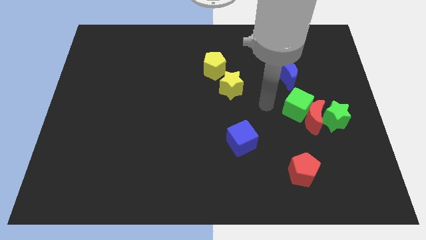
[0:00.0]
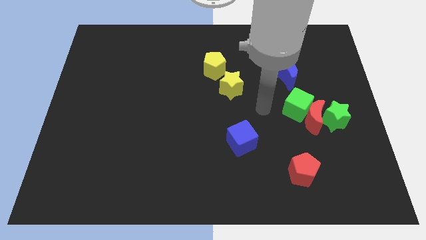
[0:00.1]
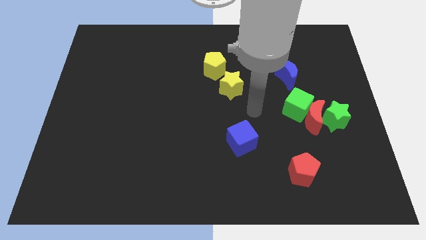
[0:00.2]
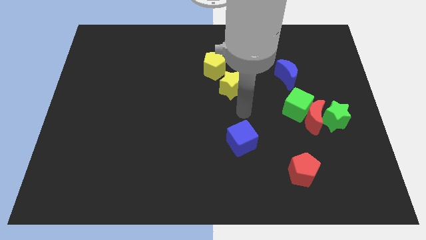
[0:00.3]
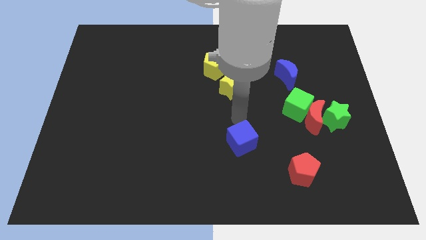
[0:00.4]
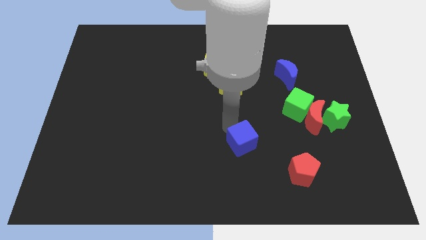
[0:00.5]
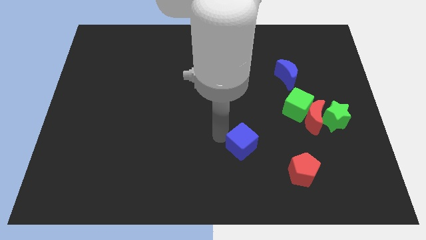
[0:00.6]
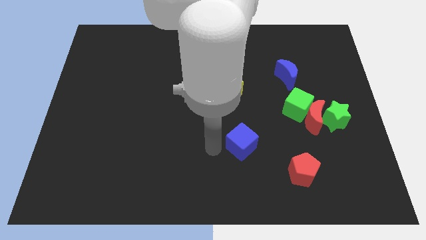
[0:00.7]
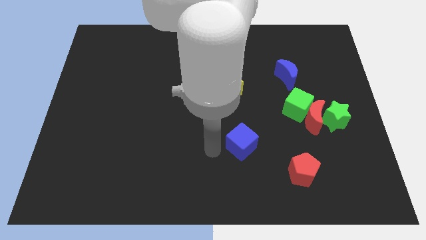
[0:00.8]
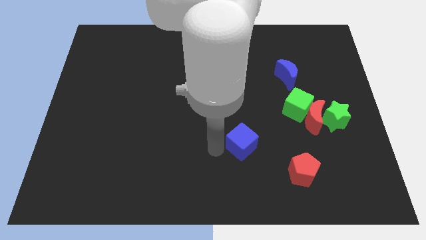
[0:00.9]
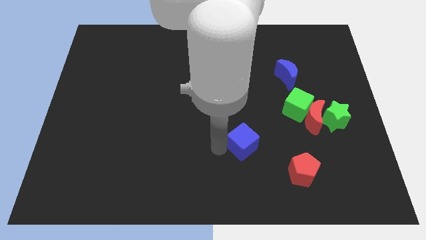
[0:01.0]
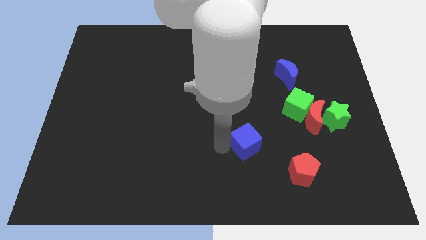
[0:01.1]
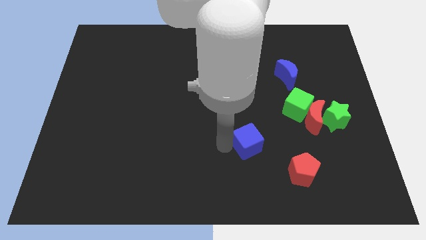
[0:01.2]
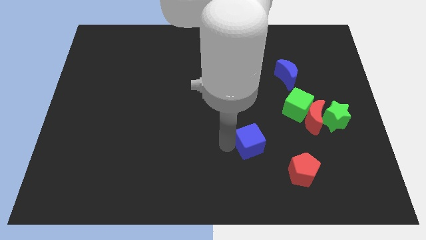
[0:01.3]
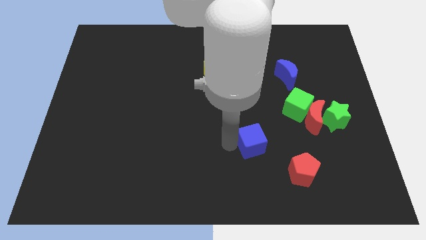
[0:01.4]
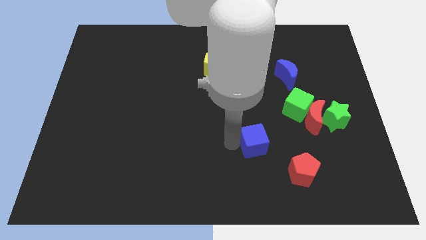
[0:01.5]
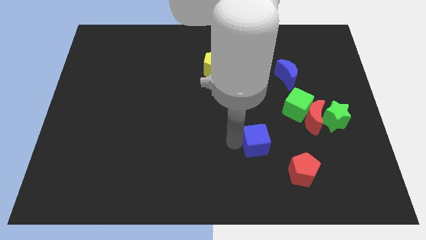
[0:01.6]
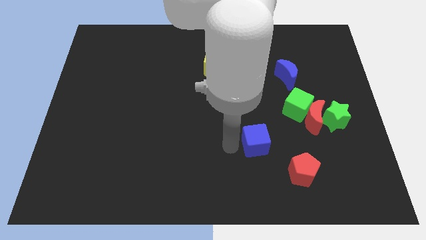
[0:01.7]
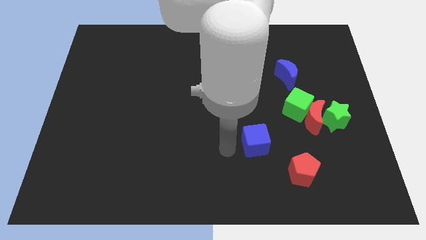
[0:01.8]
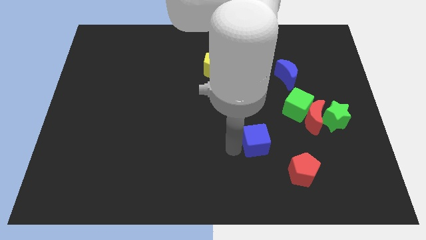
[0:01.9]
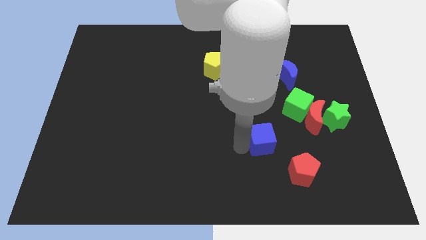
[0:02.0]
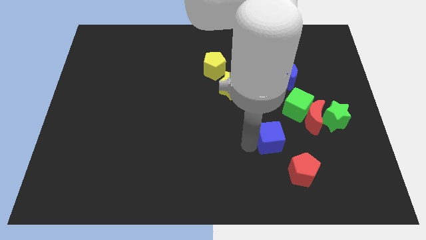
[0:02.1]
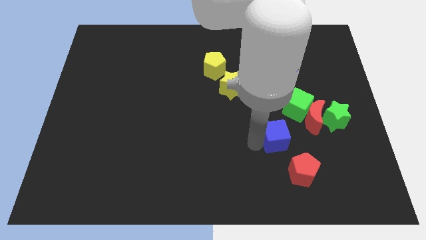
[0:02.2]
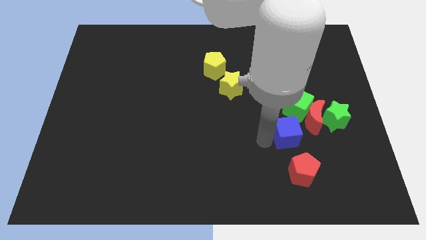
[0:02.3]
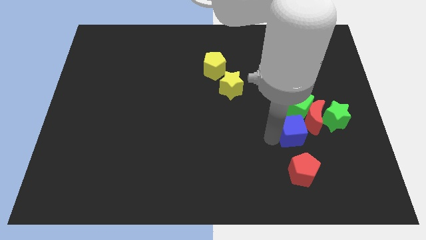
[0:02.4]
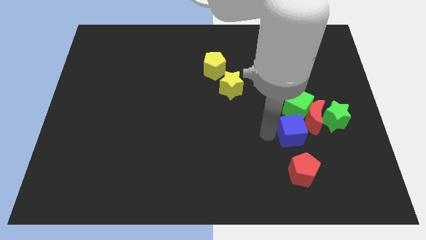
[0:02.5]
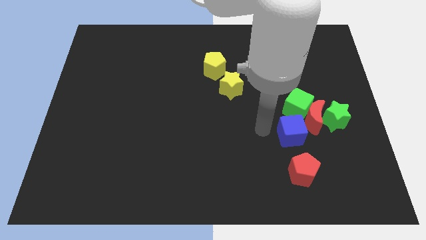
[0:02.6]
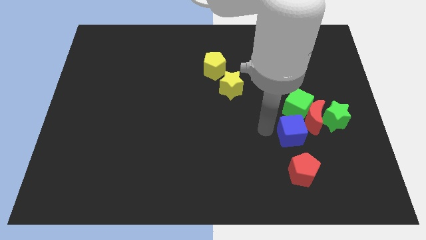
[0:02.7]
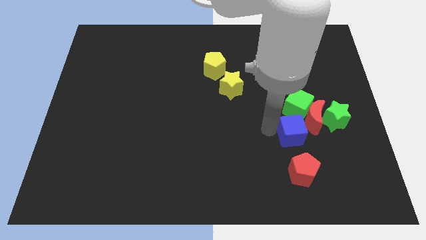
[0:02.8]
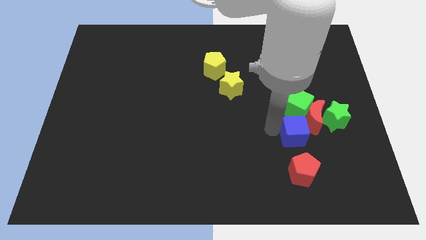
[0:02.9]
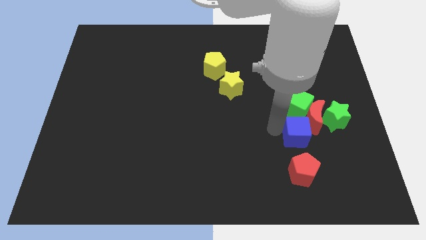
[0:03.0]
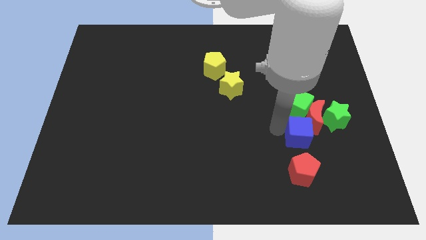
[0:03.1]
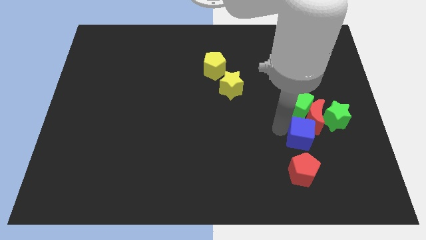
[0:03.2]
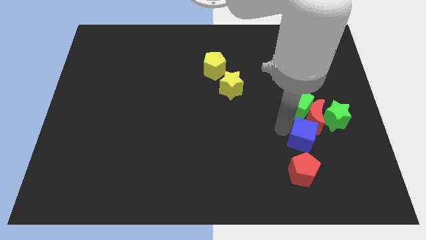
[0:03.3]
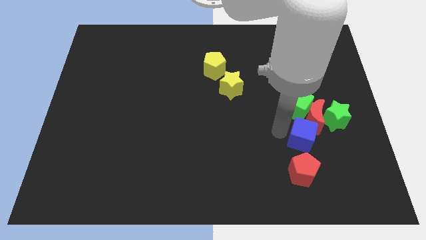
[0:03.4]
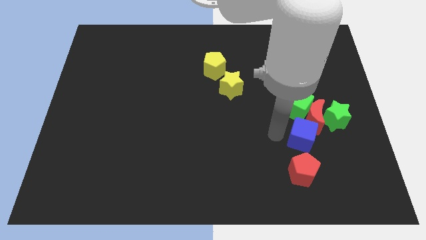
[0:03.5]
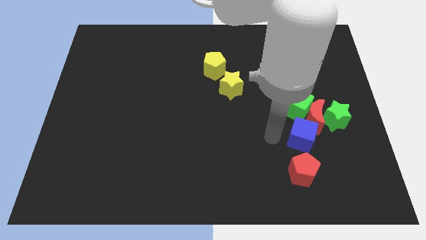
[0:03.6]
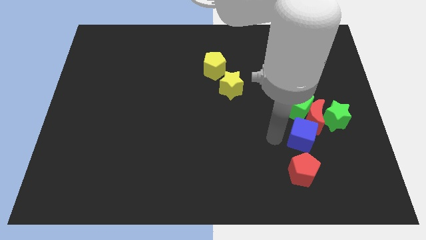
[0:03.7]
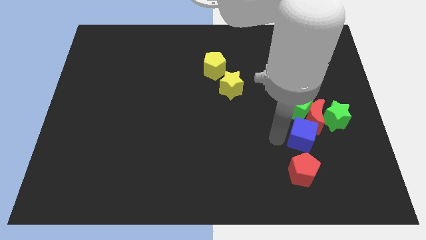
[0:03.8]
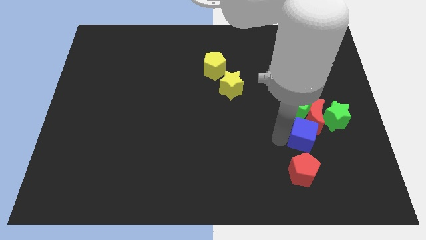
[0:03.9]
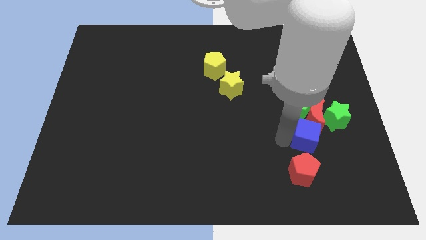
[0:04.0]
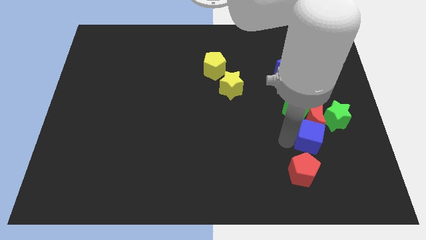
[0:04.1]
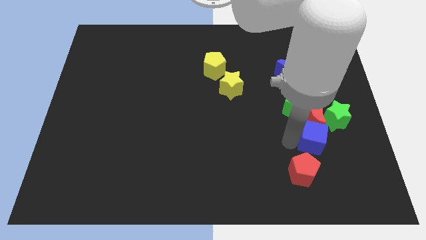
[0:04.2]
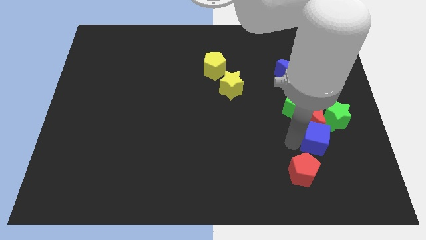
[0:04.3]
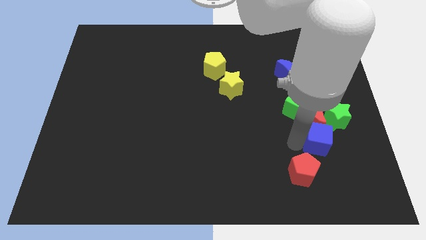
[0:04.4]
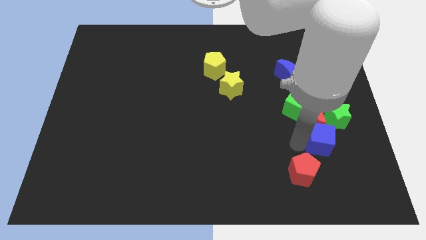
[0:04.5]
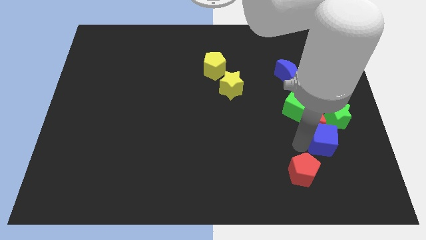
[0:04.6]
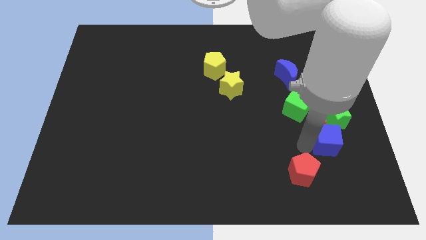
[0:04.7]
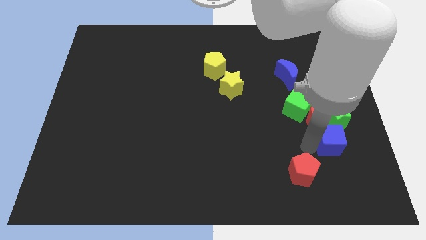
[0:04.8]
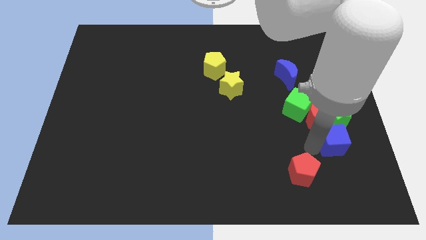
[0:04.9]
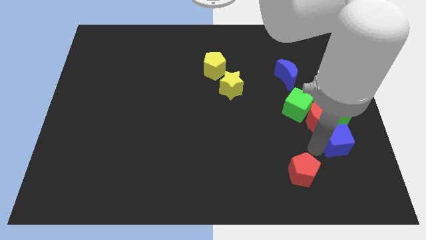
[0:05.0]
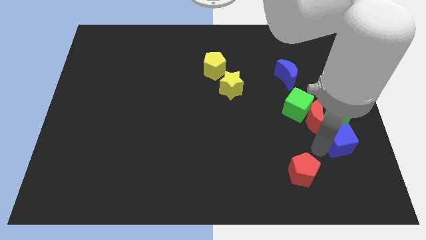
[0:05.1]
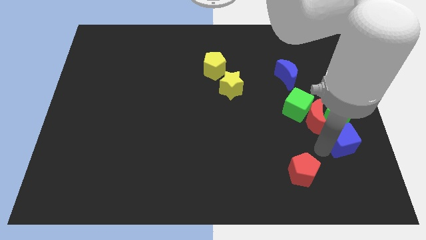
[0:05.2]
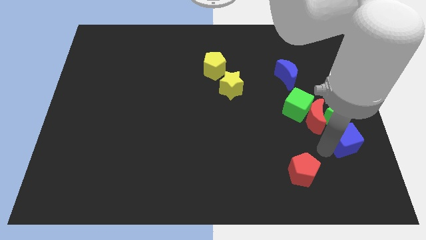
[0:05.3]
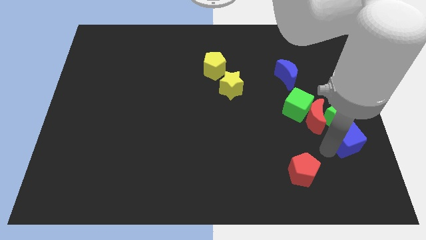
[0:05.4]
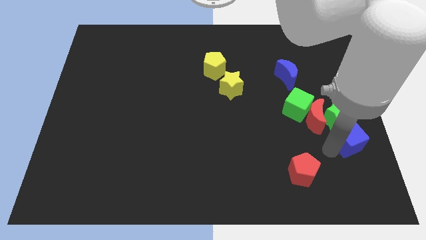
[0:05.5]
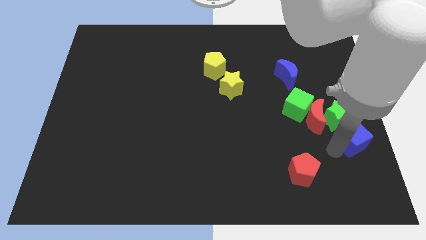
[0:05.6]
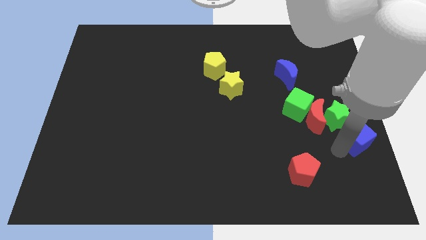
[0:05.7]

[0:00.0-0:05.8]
slide the blue cube to the right side

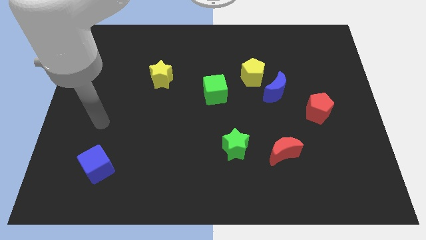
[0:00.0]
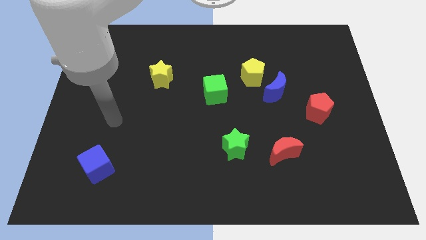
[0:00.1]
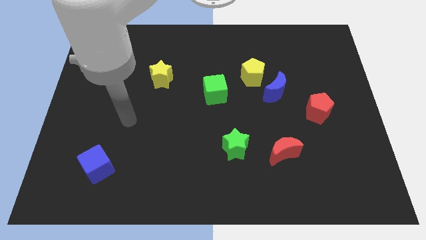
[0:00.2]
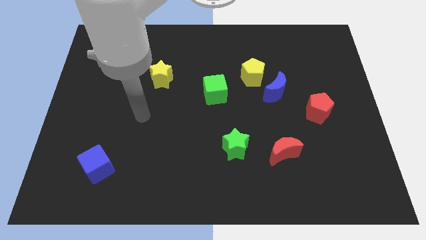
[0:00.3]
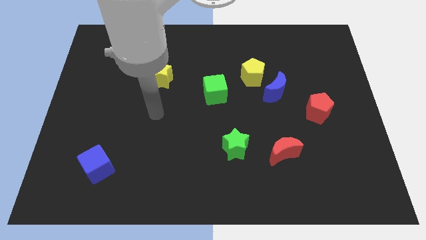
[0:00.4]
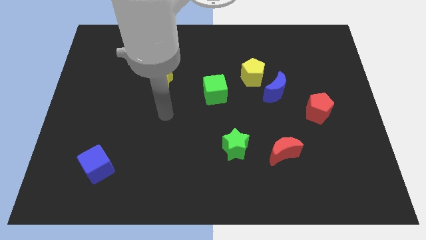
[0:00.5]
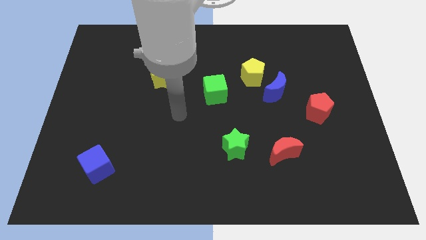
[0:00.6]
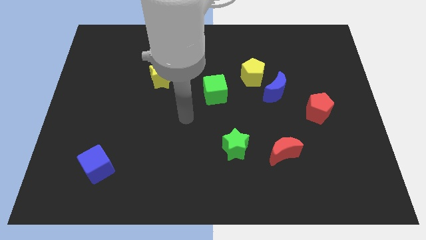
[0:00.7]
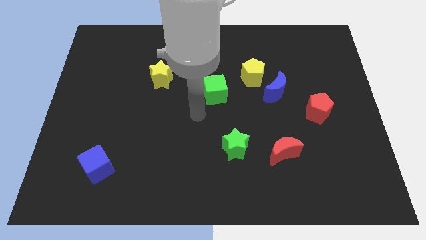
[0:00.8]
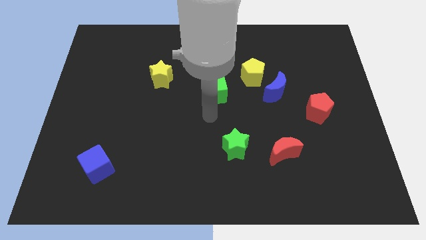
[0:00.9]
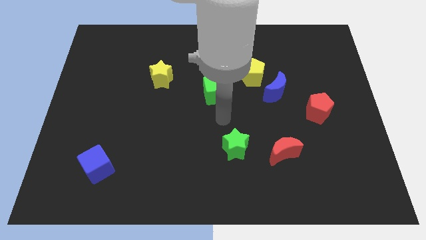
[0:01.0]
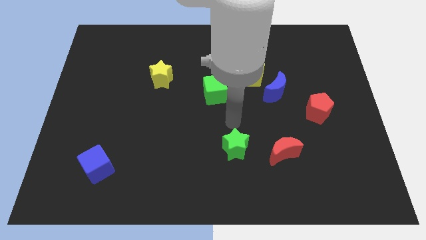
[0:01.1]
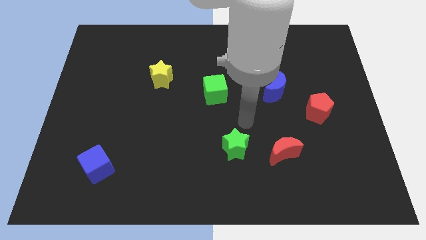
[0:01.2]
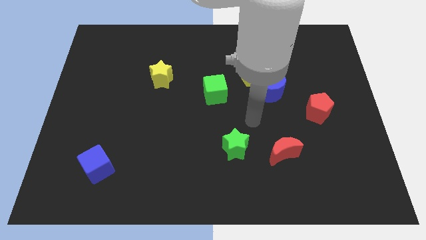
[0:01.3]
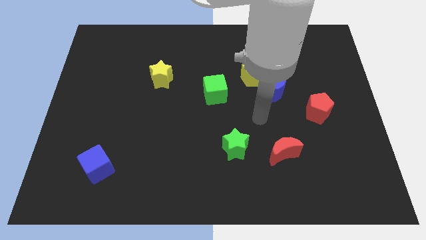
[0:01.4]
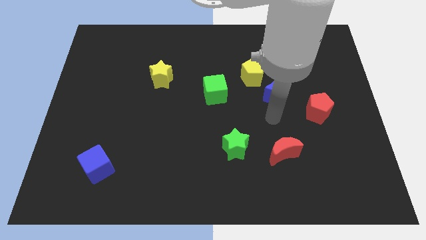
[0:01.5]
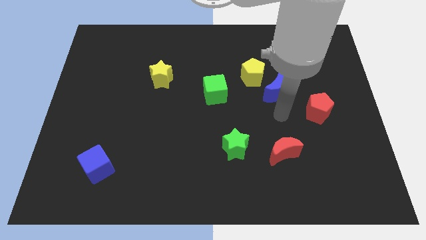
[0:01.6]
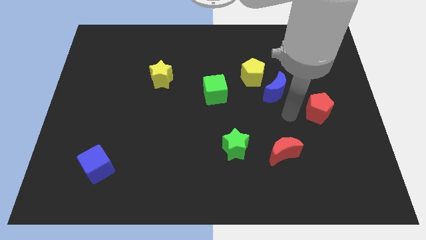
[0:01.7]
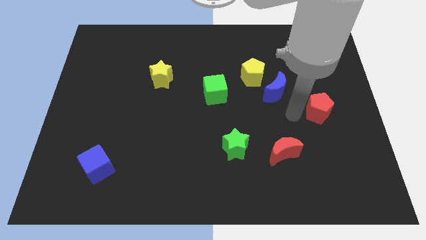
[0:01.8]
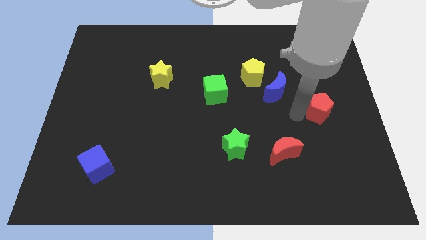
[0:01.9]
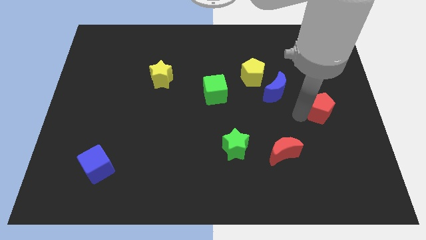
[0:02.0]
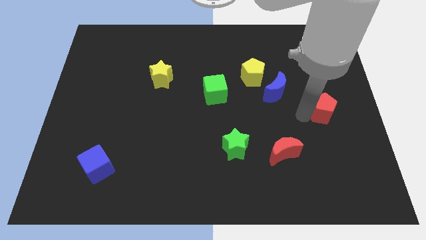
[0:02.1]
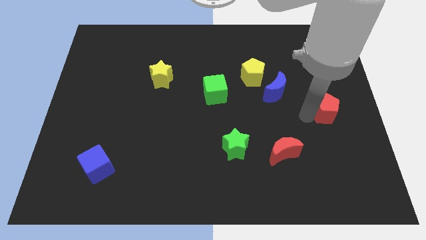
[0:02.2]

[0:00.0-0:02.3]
push the red pentagon to the center right
